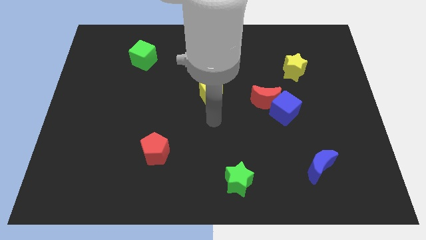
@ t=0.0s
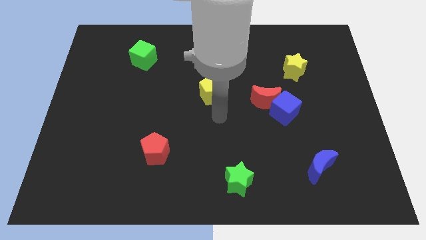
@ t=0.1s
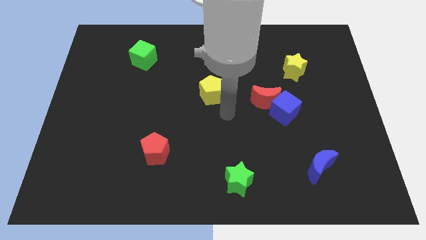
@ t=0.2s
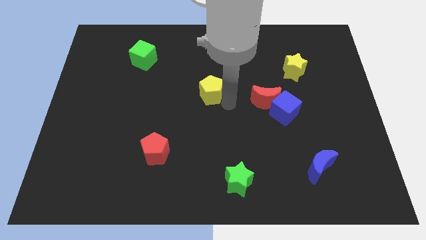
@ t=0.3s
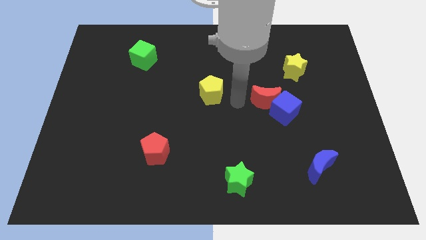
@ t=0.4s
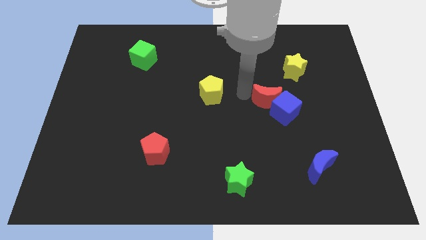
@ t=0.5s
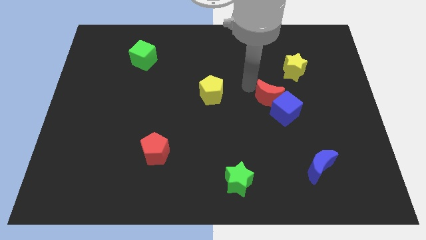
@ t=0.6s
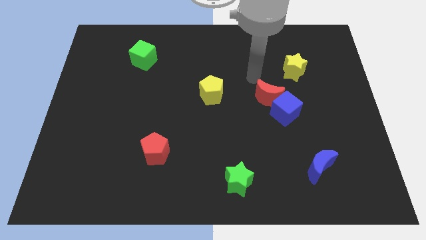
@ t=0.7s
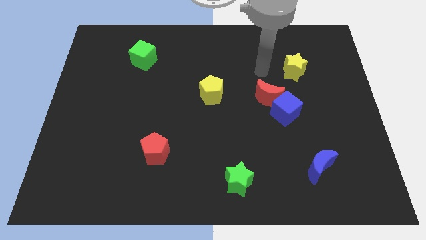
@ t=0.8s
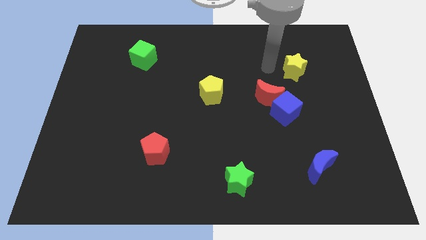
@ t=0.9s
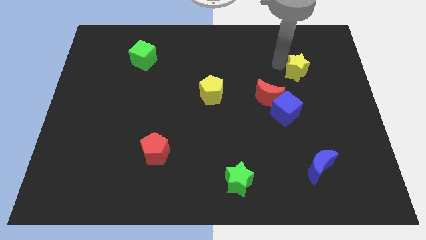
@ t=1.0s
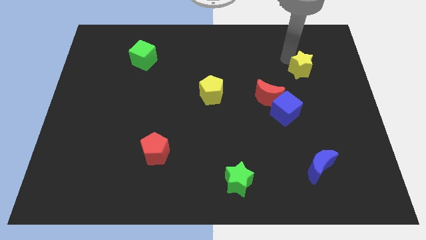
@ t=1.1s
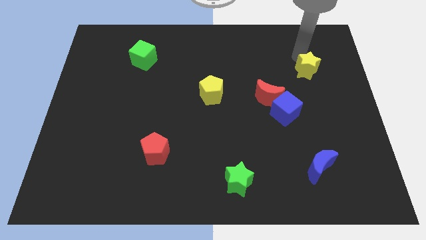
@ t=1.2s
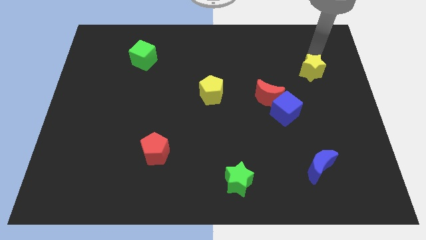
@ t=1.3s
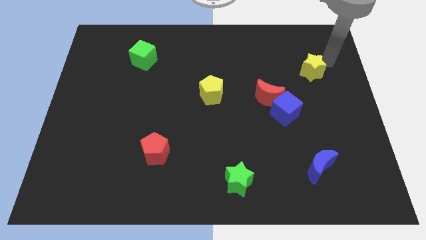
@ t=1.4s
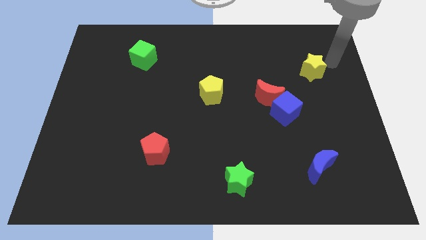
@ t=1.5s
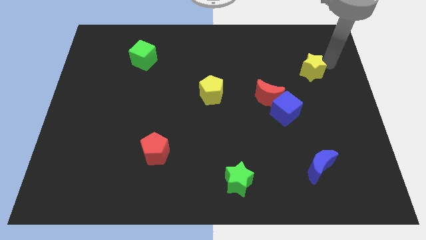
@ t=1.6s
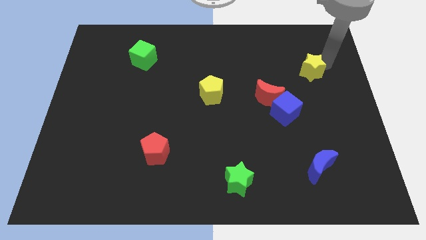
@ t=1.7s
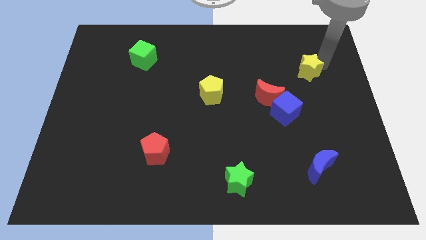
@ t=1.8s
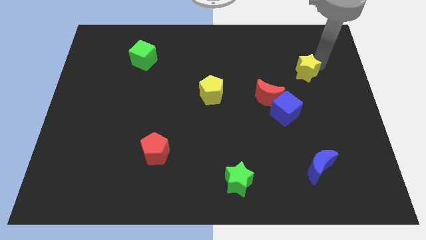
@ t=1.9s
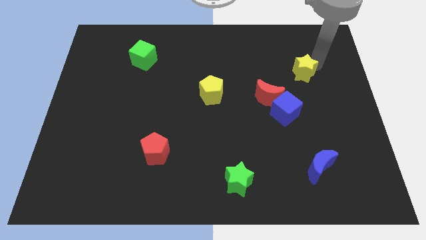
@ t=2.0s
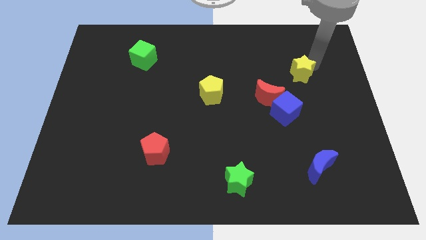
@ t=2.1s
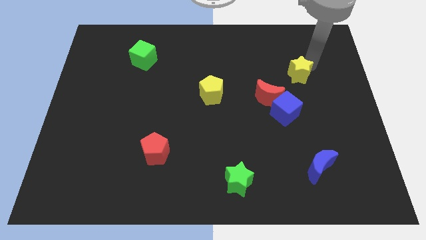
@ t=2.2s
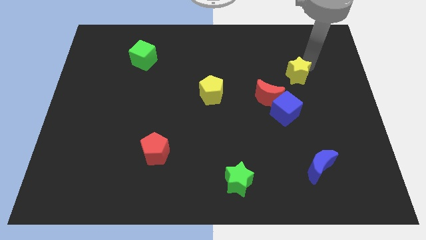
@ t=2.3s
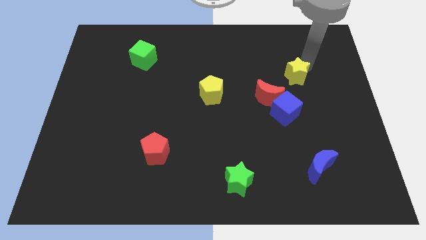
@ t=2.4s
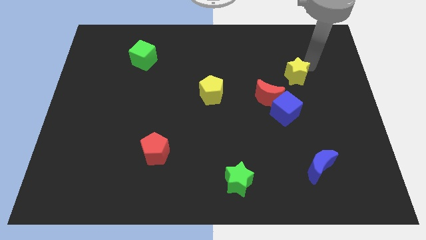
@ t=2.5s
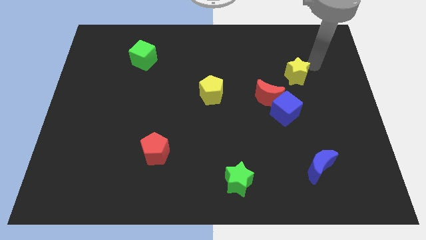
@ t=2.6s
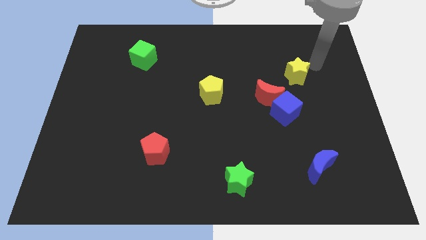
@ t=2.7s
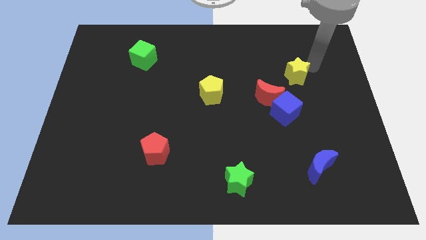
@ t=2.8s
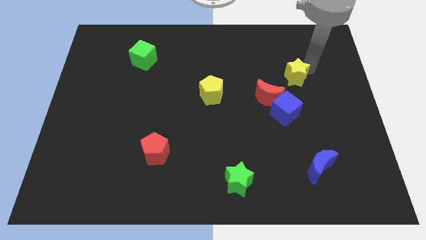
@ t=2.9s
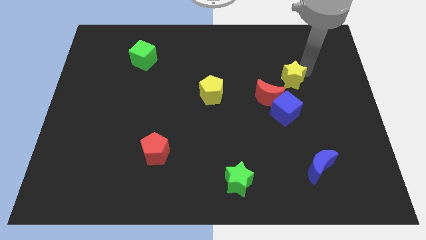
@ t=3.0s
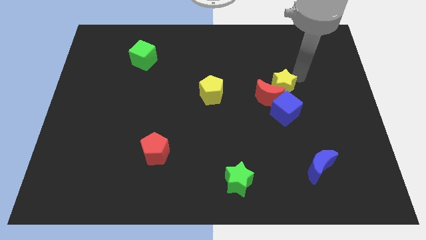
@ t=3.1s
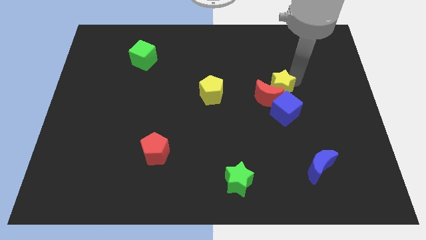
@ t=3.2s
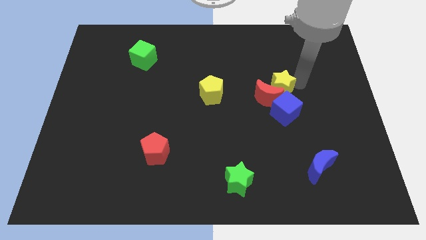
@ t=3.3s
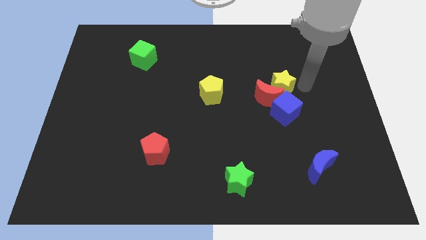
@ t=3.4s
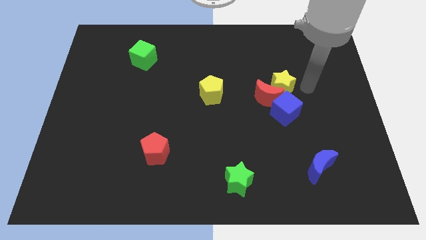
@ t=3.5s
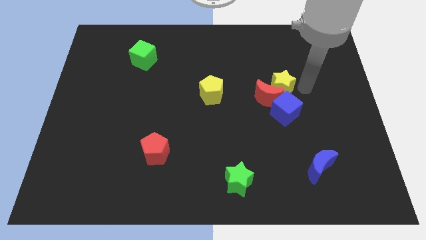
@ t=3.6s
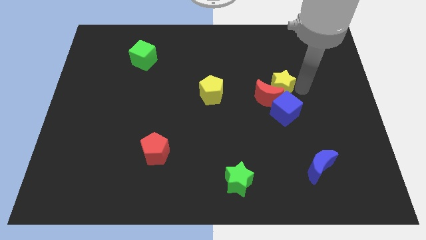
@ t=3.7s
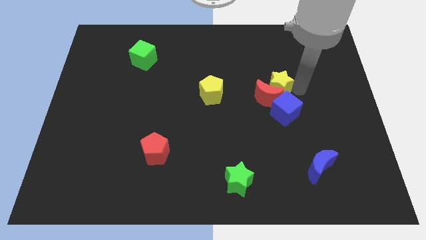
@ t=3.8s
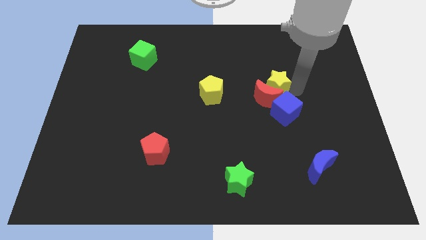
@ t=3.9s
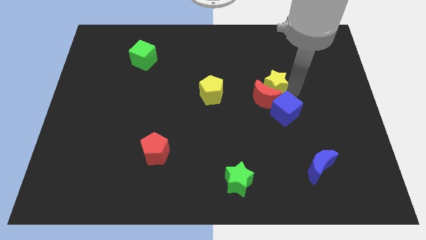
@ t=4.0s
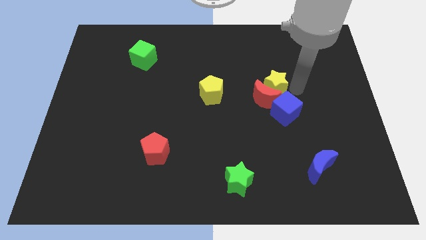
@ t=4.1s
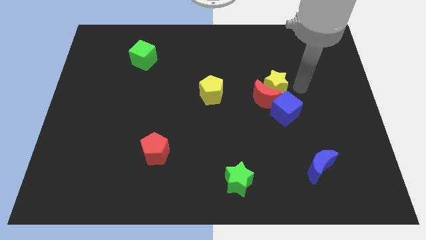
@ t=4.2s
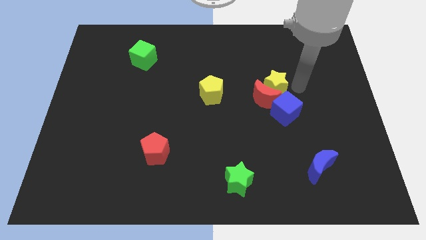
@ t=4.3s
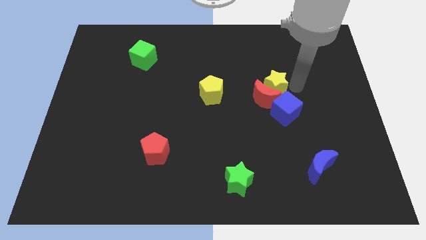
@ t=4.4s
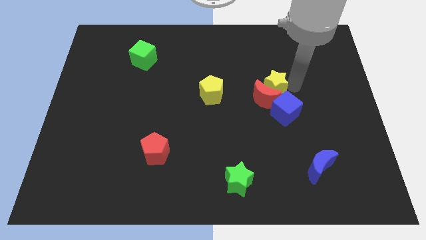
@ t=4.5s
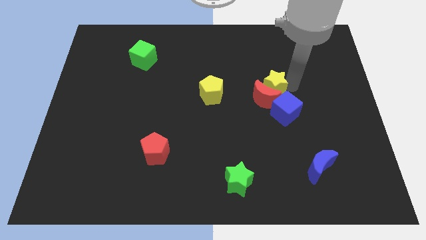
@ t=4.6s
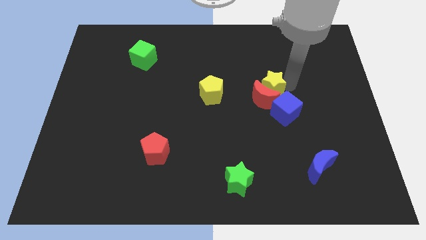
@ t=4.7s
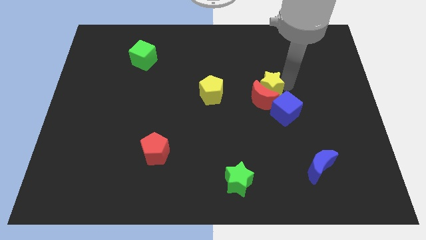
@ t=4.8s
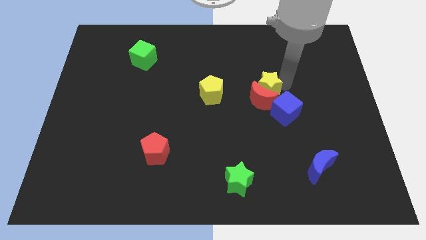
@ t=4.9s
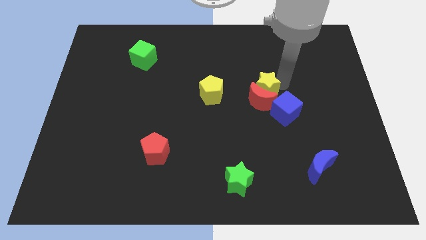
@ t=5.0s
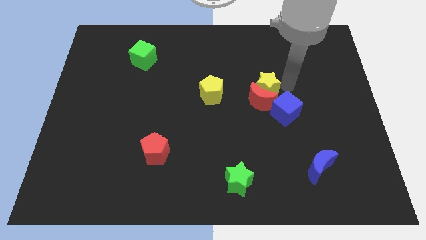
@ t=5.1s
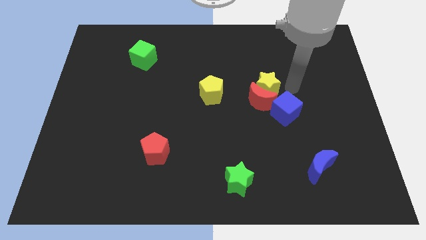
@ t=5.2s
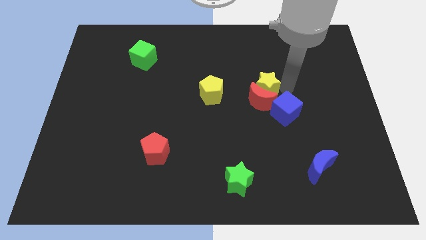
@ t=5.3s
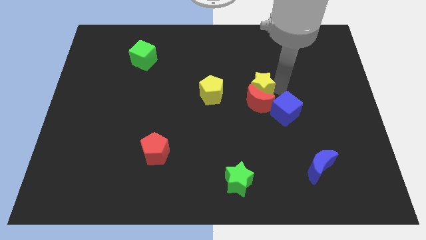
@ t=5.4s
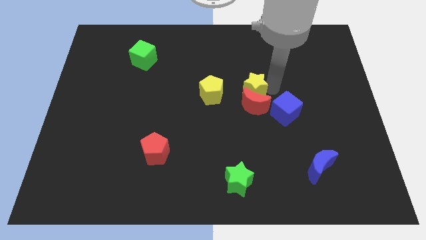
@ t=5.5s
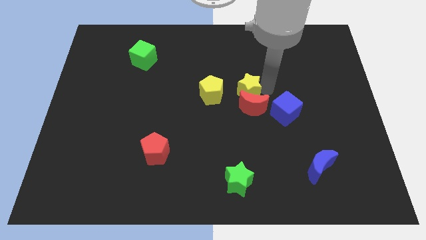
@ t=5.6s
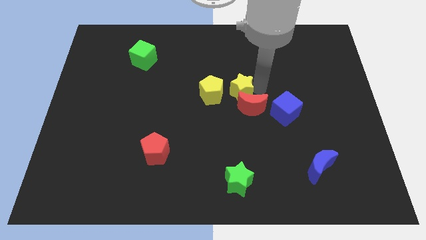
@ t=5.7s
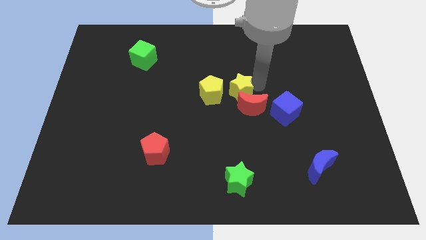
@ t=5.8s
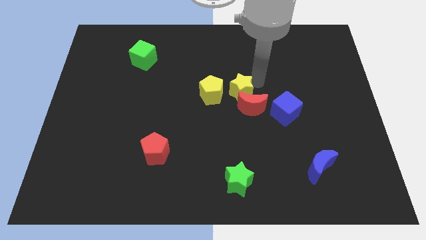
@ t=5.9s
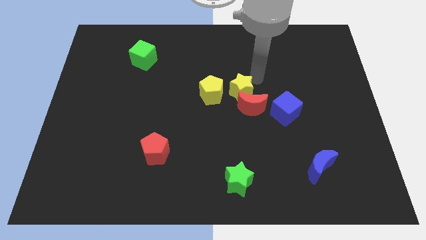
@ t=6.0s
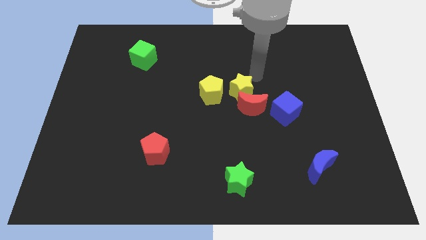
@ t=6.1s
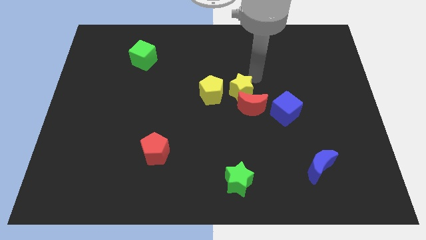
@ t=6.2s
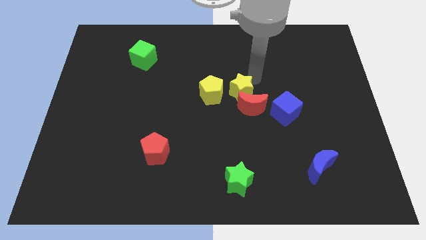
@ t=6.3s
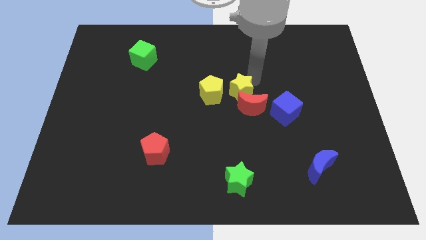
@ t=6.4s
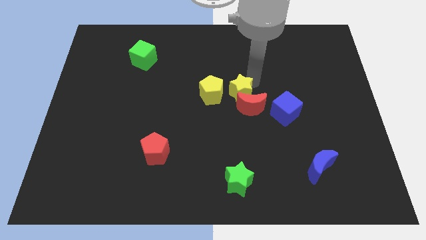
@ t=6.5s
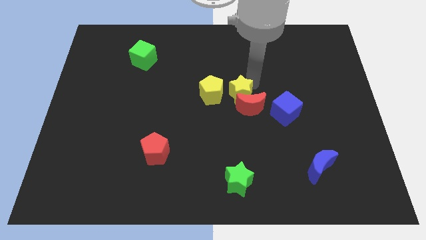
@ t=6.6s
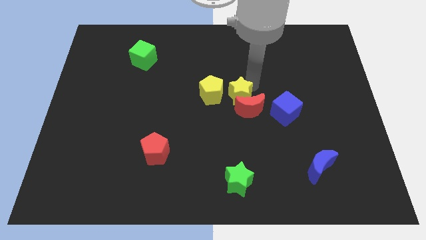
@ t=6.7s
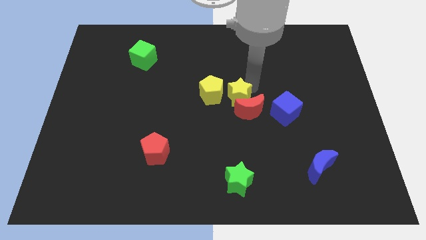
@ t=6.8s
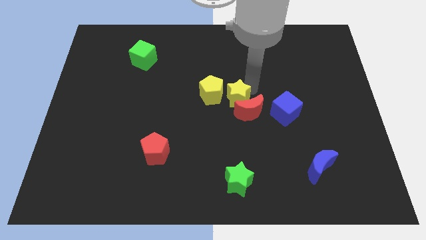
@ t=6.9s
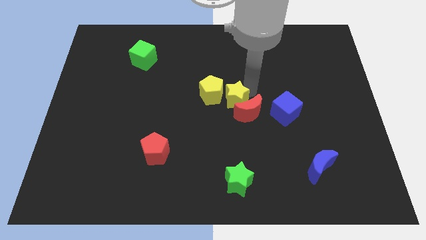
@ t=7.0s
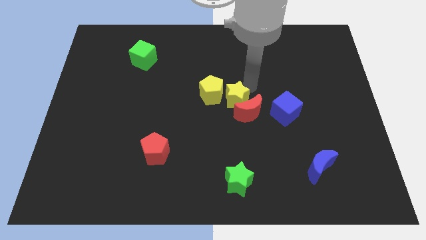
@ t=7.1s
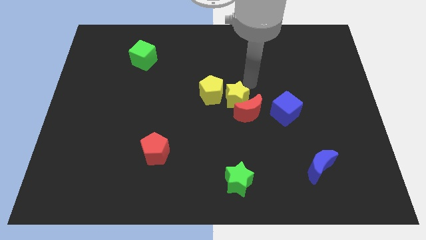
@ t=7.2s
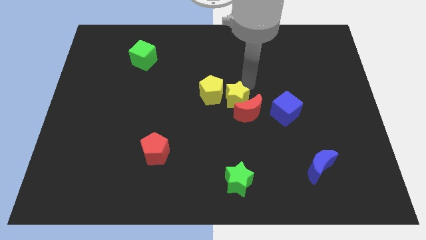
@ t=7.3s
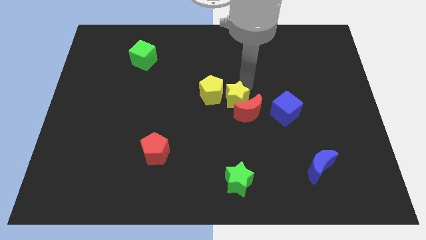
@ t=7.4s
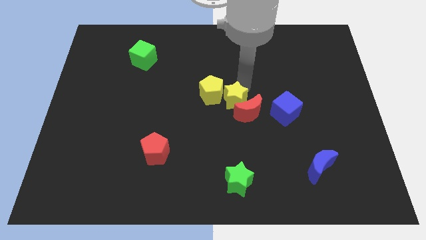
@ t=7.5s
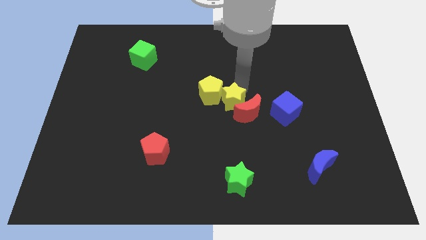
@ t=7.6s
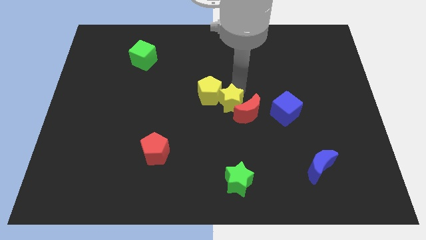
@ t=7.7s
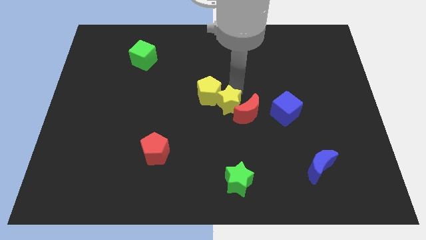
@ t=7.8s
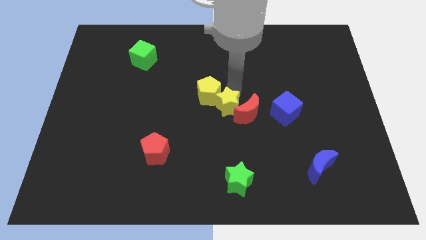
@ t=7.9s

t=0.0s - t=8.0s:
slide the yellow star downwards and to the left

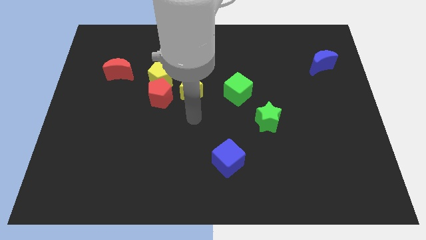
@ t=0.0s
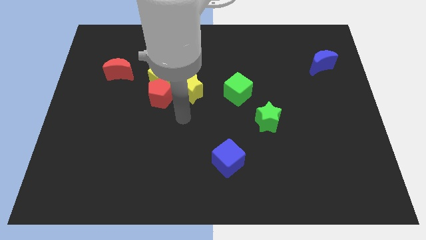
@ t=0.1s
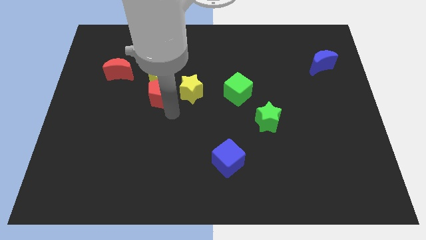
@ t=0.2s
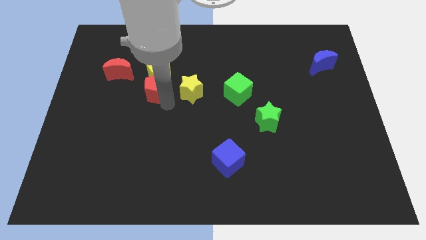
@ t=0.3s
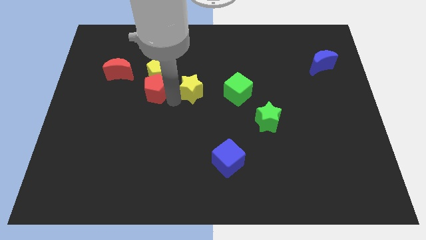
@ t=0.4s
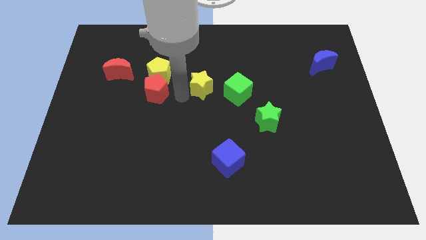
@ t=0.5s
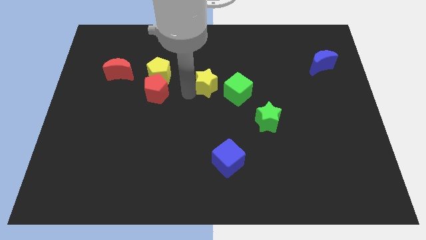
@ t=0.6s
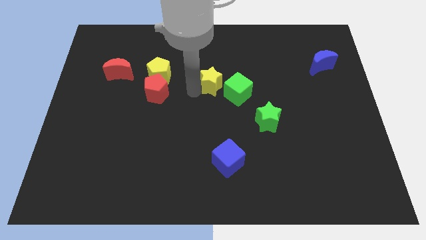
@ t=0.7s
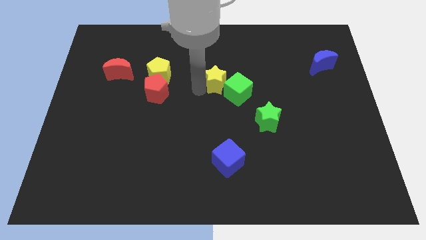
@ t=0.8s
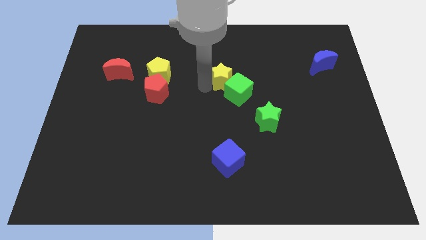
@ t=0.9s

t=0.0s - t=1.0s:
slightly move the yellow star to the right
